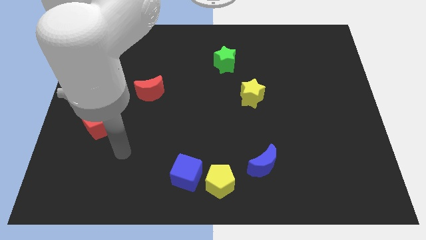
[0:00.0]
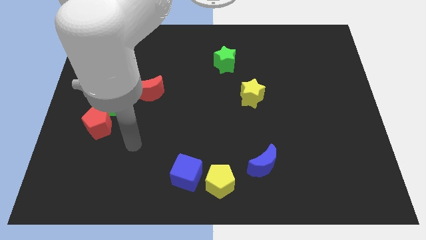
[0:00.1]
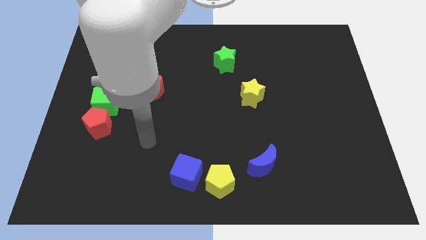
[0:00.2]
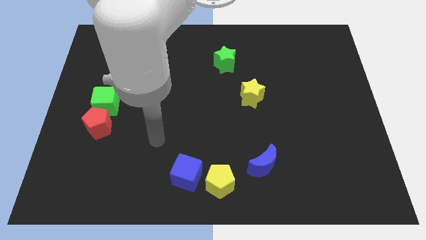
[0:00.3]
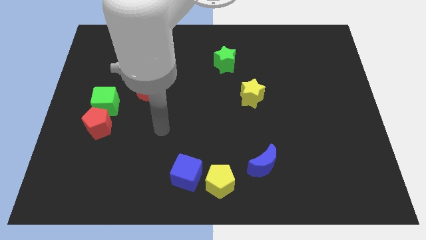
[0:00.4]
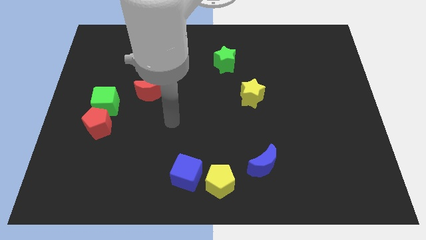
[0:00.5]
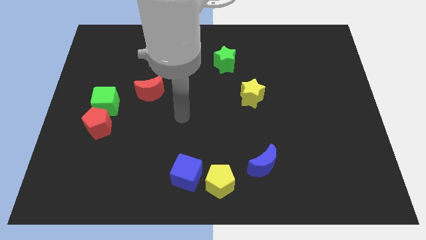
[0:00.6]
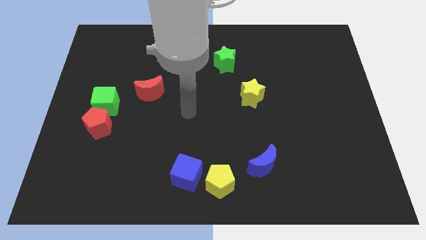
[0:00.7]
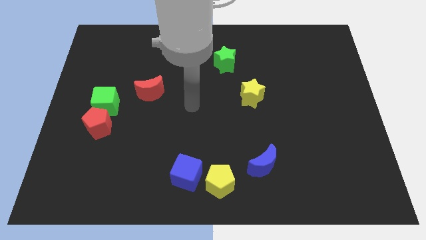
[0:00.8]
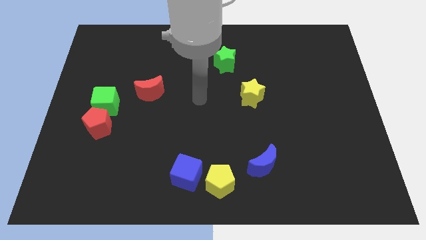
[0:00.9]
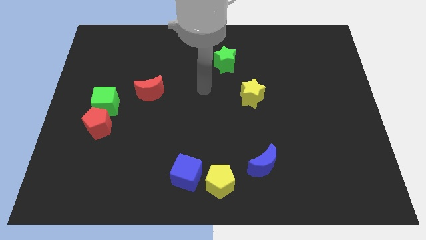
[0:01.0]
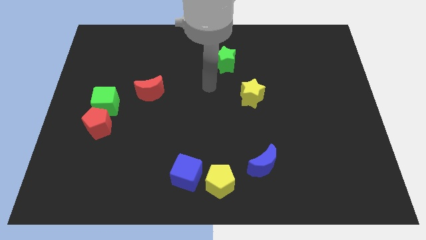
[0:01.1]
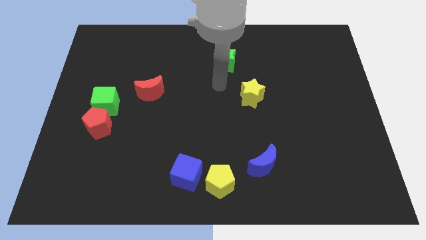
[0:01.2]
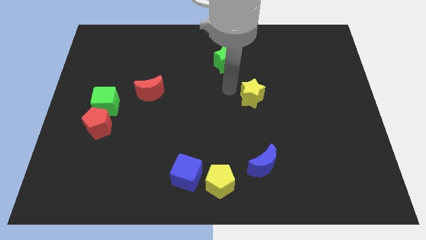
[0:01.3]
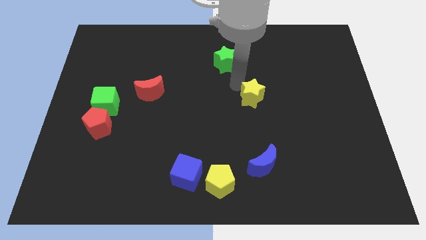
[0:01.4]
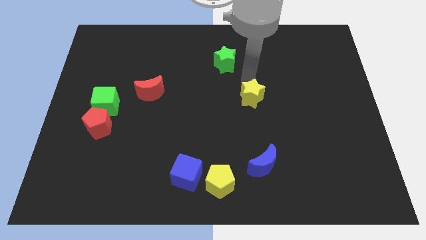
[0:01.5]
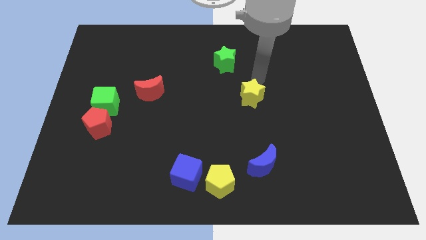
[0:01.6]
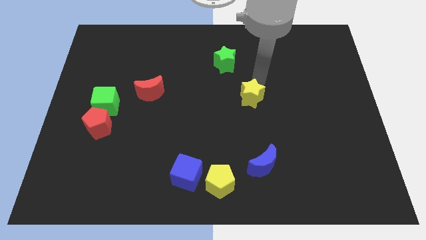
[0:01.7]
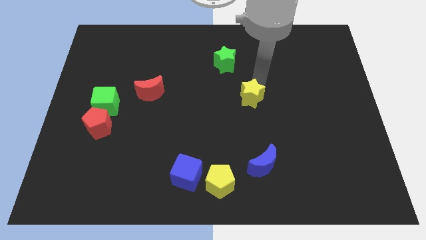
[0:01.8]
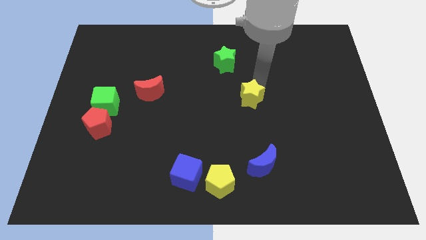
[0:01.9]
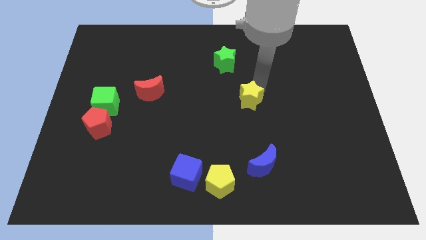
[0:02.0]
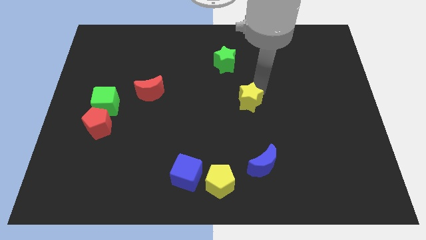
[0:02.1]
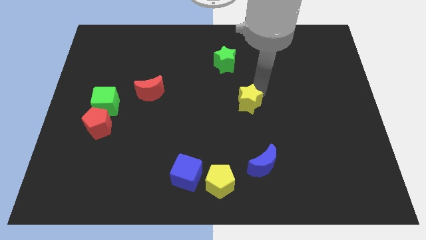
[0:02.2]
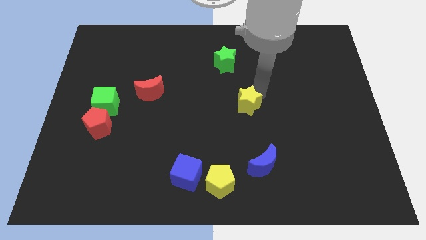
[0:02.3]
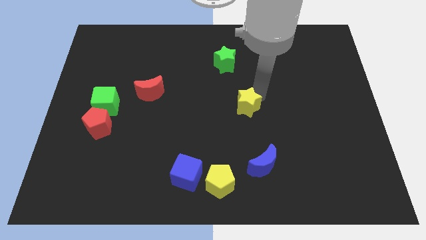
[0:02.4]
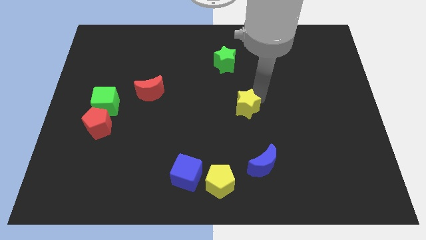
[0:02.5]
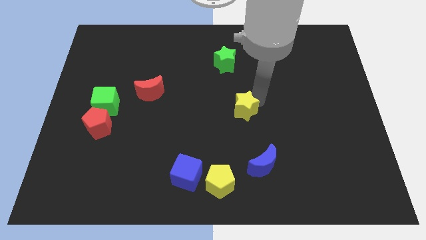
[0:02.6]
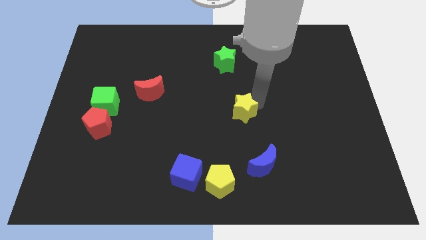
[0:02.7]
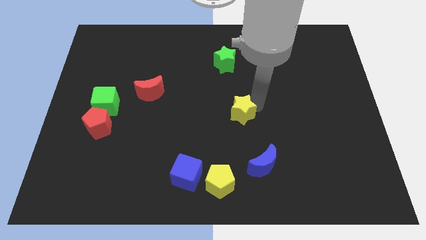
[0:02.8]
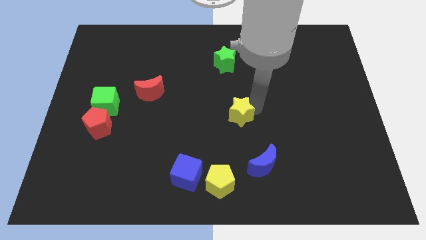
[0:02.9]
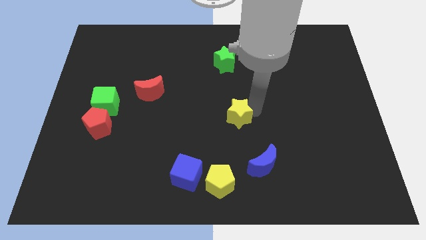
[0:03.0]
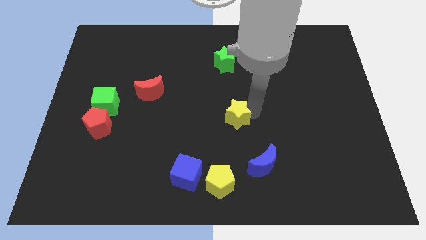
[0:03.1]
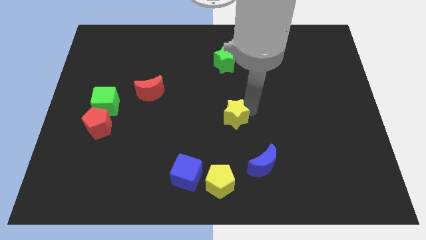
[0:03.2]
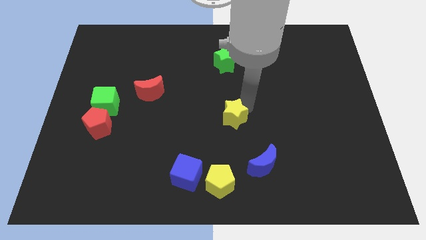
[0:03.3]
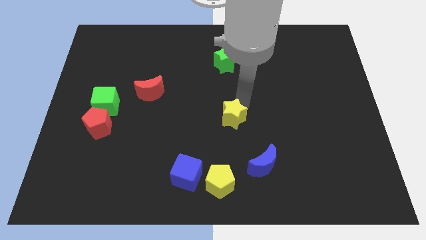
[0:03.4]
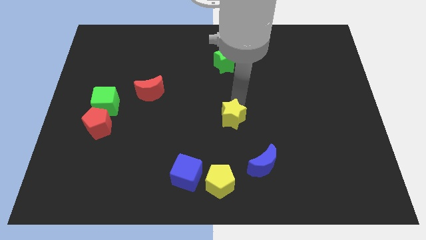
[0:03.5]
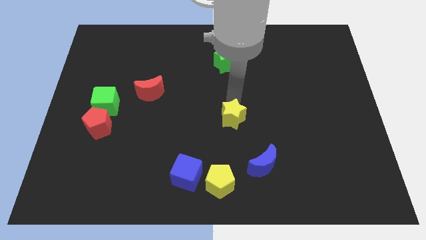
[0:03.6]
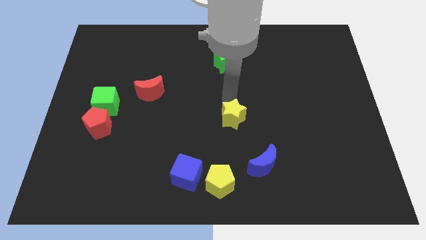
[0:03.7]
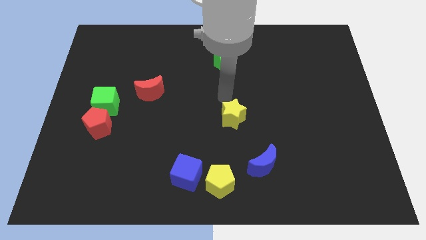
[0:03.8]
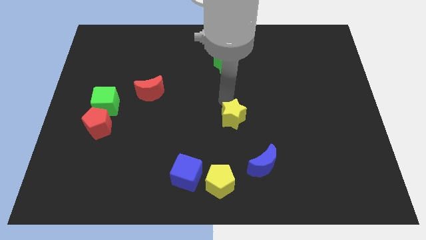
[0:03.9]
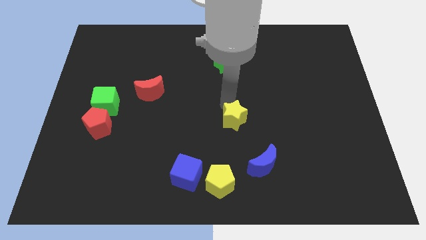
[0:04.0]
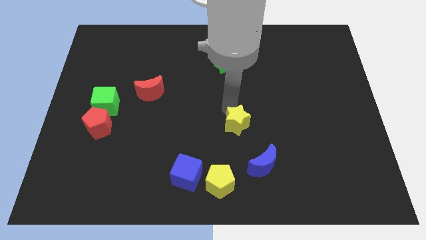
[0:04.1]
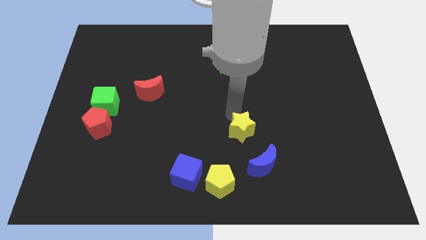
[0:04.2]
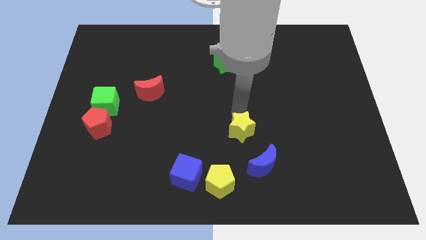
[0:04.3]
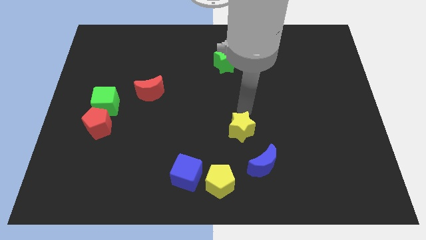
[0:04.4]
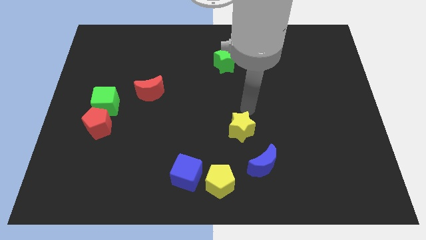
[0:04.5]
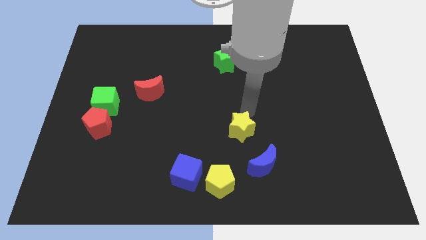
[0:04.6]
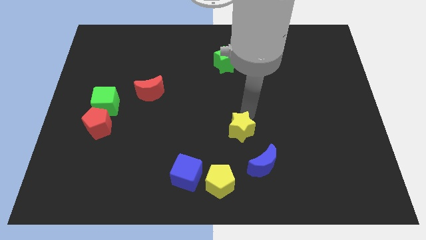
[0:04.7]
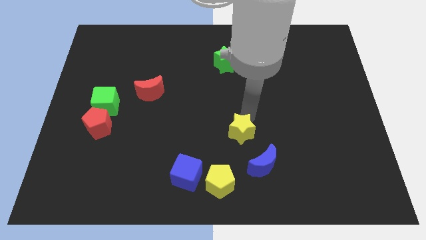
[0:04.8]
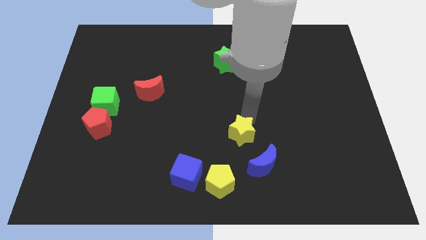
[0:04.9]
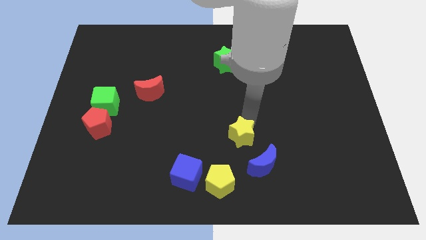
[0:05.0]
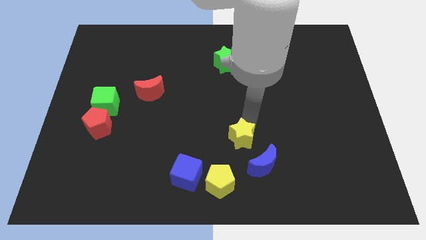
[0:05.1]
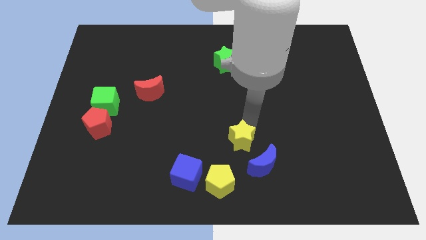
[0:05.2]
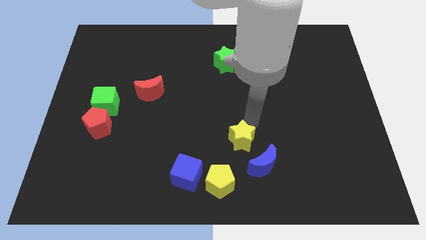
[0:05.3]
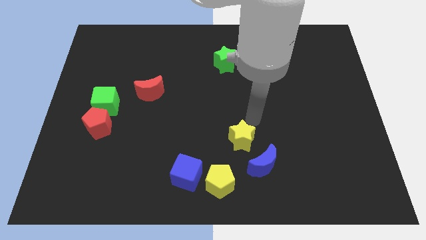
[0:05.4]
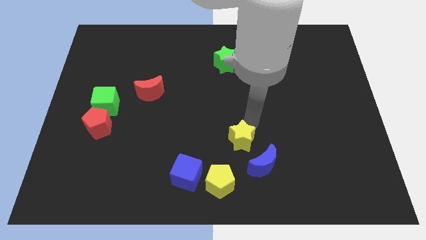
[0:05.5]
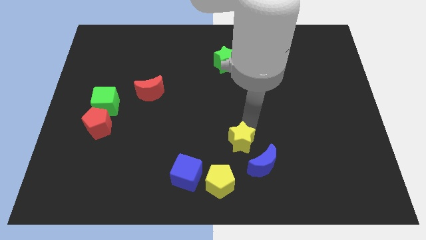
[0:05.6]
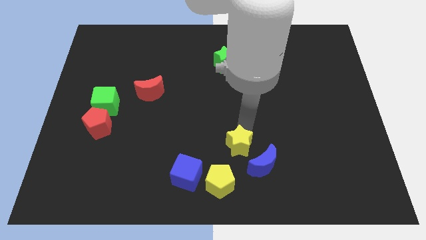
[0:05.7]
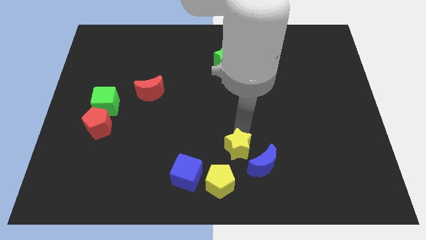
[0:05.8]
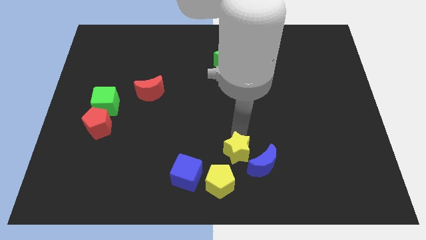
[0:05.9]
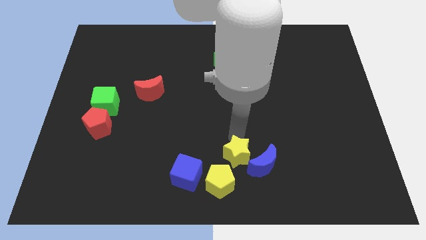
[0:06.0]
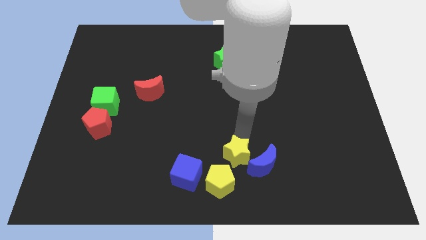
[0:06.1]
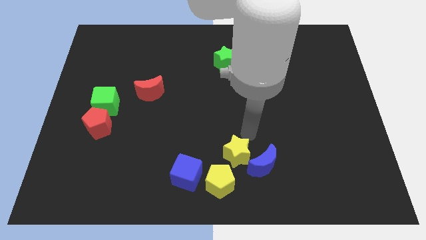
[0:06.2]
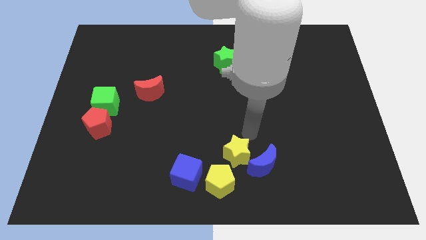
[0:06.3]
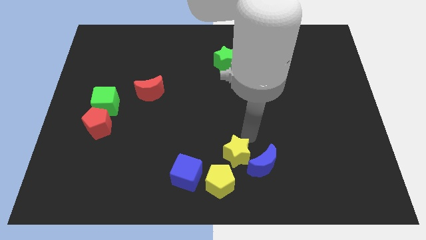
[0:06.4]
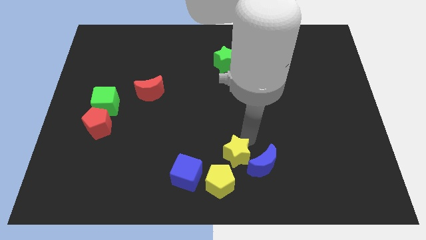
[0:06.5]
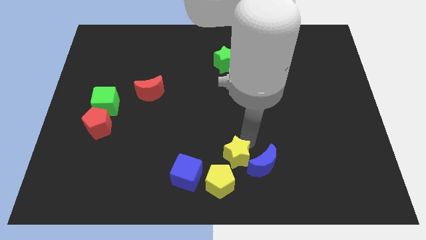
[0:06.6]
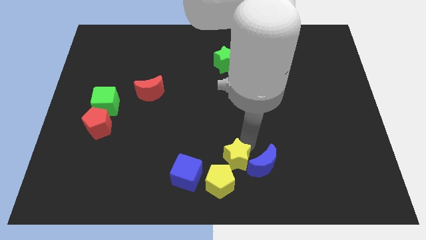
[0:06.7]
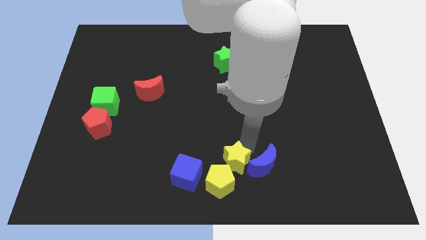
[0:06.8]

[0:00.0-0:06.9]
move the yellow star towards the yellow pentagon
